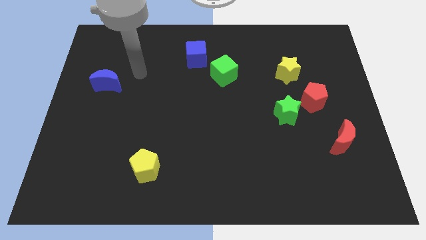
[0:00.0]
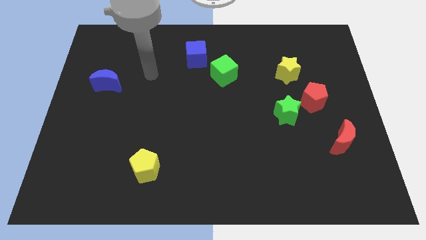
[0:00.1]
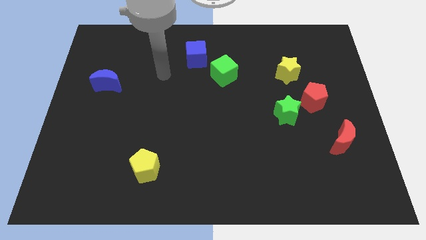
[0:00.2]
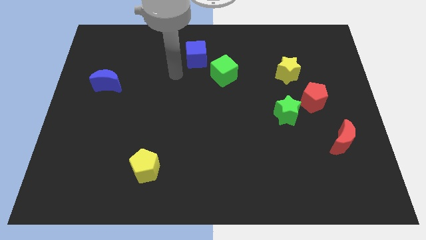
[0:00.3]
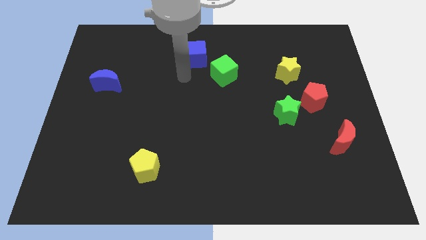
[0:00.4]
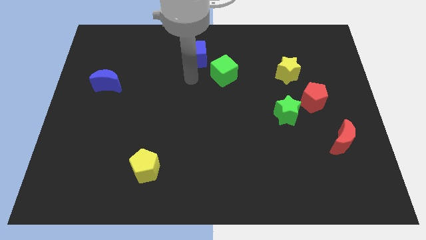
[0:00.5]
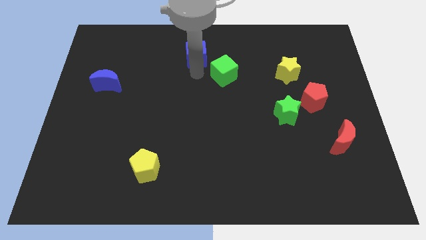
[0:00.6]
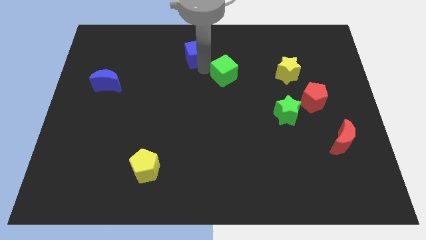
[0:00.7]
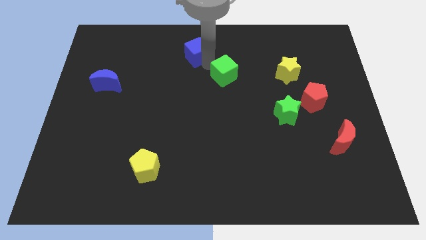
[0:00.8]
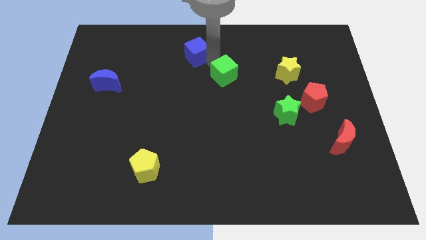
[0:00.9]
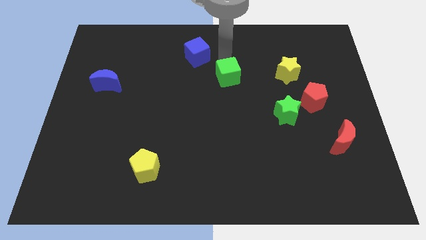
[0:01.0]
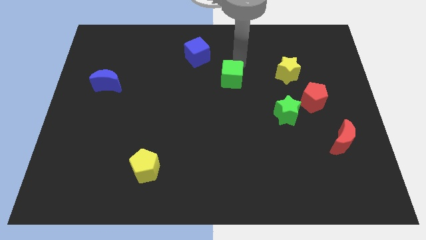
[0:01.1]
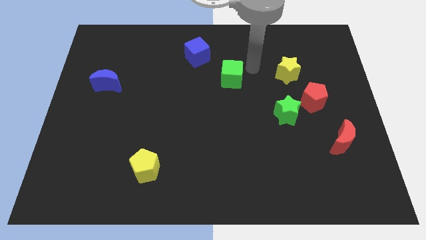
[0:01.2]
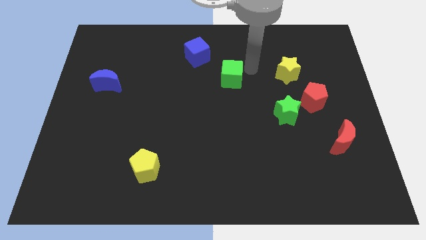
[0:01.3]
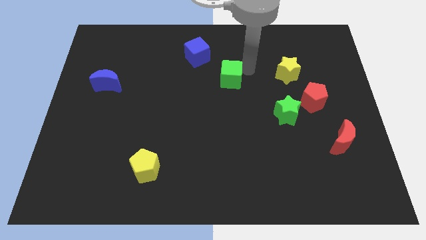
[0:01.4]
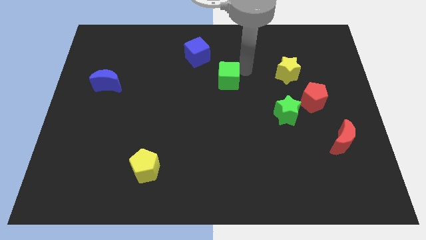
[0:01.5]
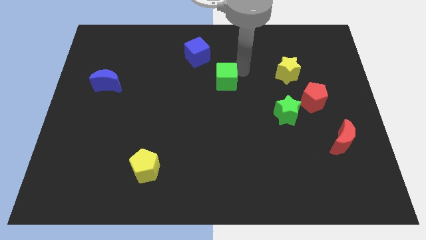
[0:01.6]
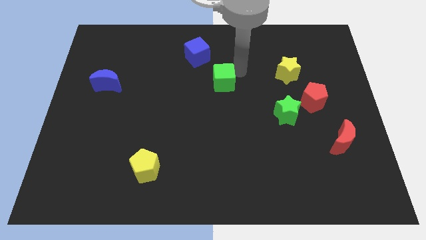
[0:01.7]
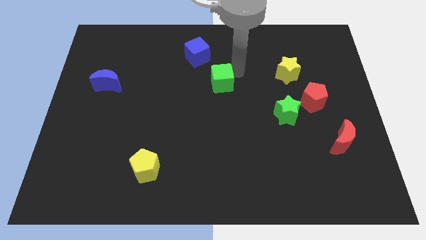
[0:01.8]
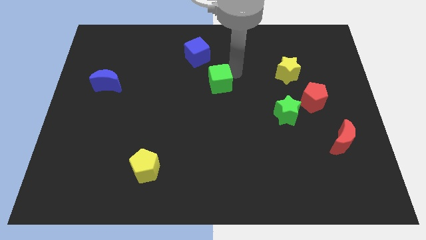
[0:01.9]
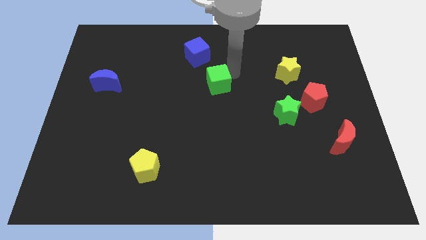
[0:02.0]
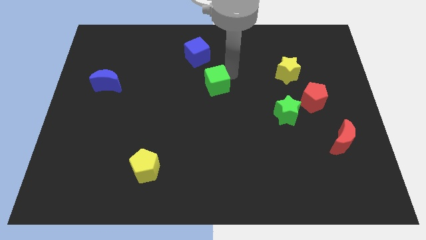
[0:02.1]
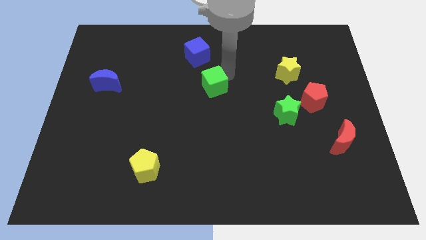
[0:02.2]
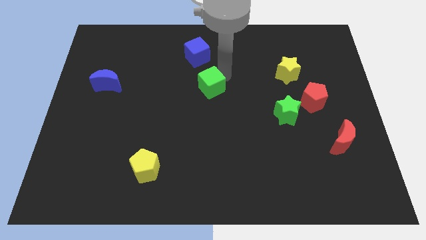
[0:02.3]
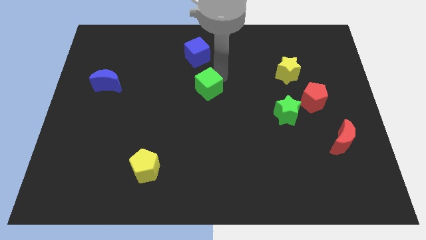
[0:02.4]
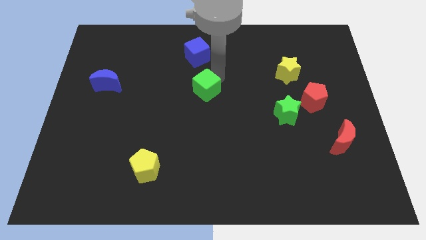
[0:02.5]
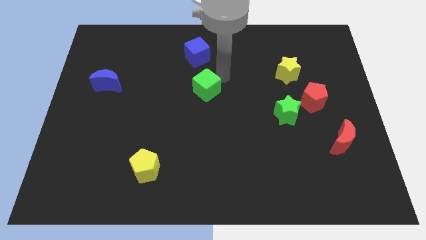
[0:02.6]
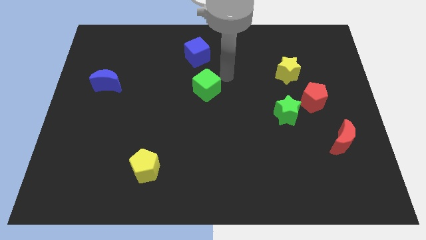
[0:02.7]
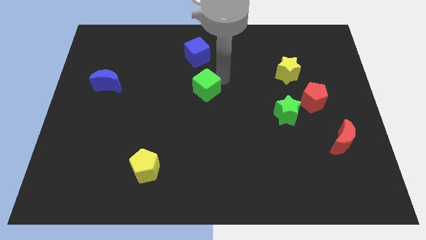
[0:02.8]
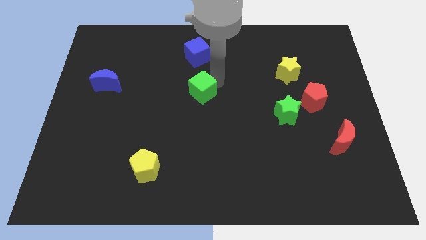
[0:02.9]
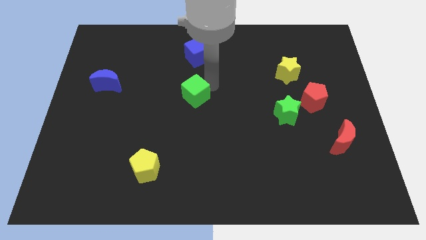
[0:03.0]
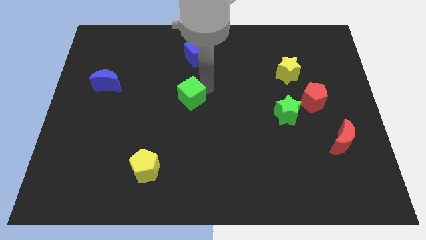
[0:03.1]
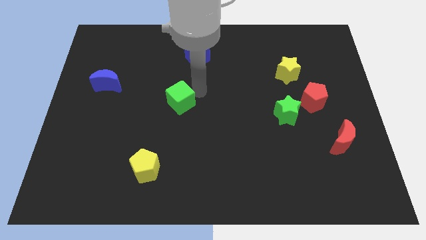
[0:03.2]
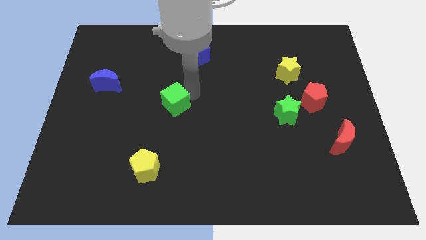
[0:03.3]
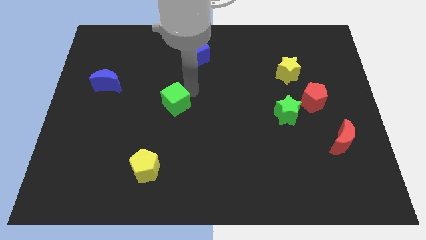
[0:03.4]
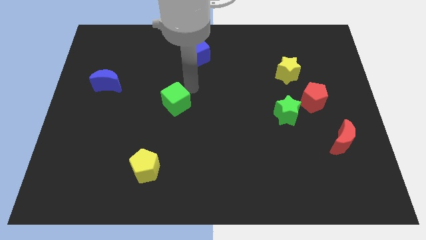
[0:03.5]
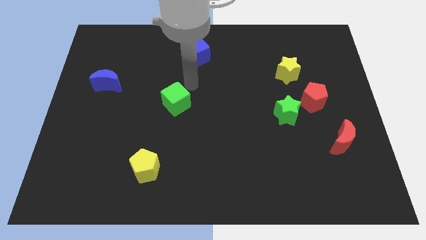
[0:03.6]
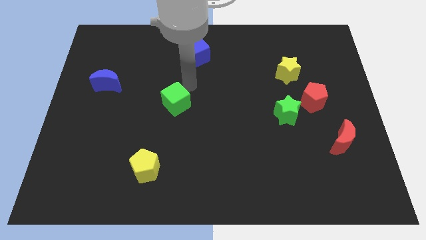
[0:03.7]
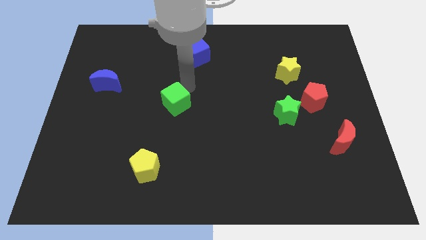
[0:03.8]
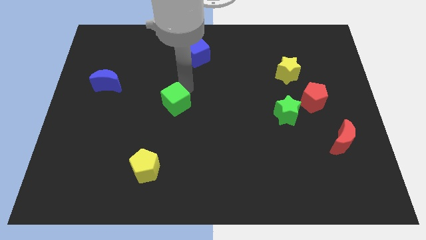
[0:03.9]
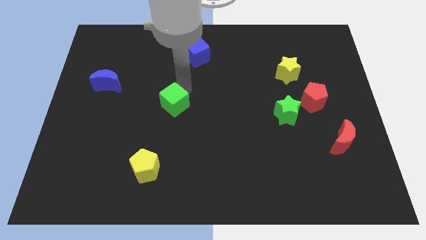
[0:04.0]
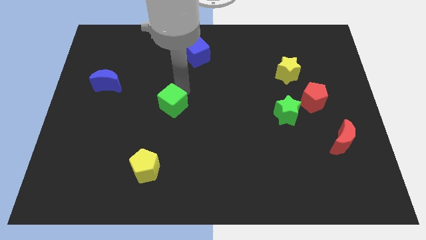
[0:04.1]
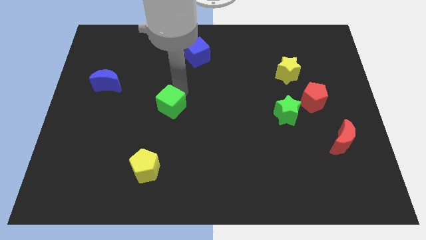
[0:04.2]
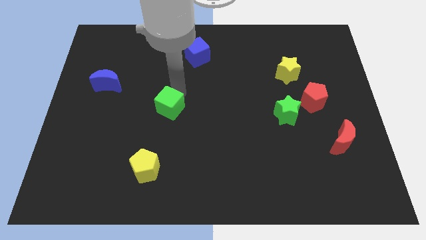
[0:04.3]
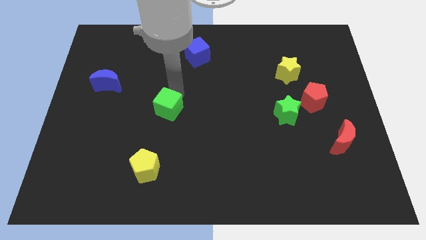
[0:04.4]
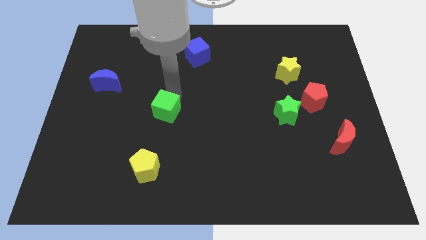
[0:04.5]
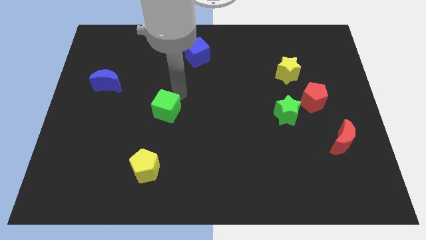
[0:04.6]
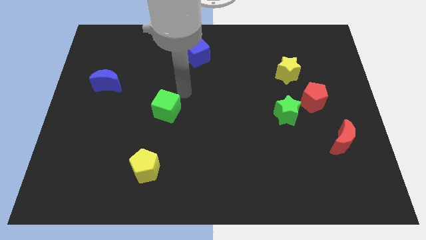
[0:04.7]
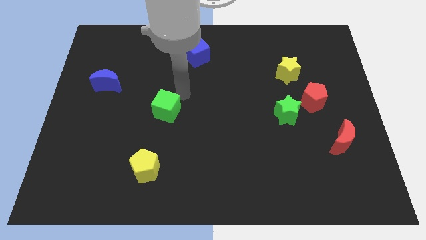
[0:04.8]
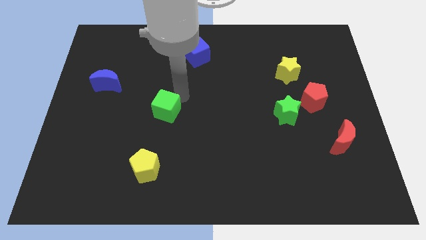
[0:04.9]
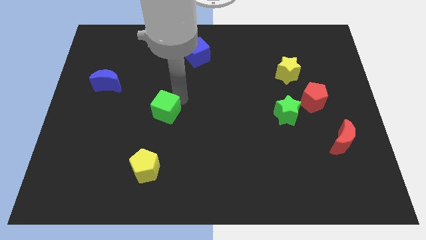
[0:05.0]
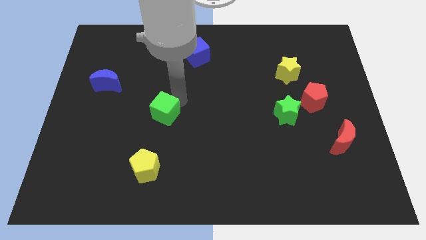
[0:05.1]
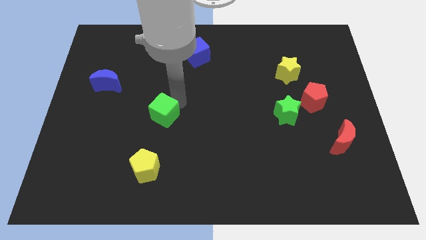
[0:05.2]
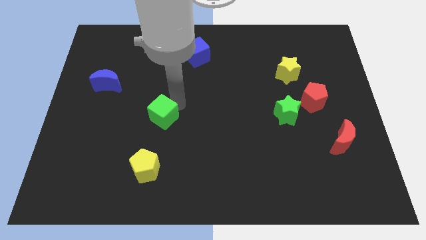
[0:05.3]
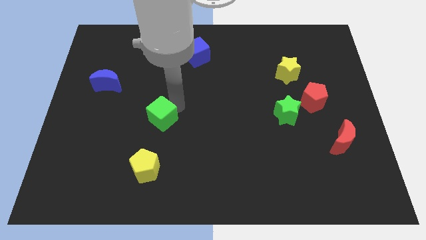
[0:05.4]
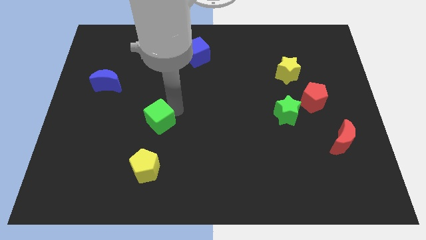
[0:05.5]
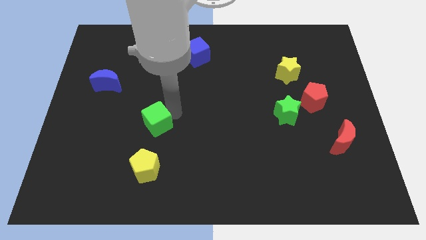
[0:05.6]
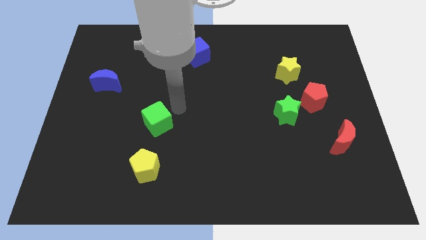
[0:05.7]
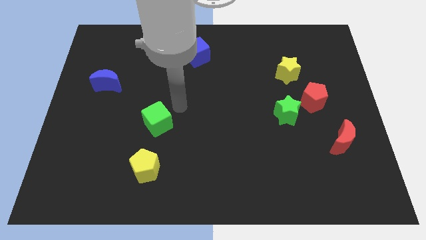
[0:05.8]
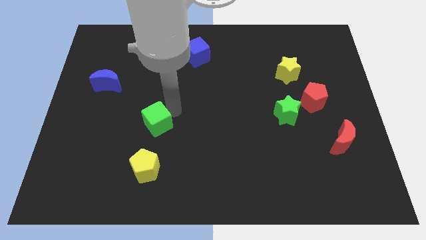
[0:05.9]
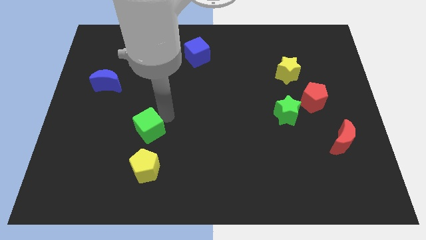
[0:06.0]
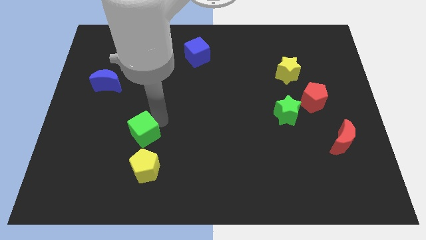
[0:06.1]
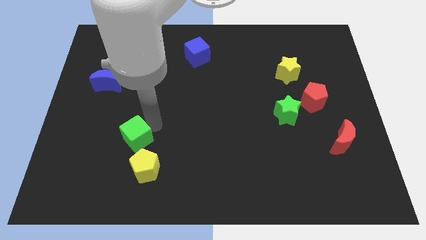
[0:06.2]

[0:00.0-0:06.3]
slide the green cube to the top left of the yellow pentagon

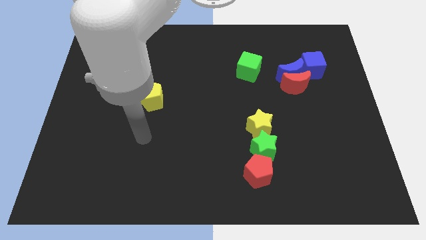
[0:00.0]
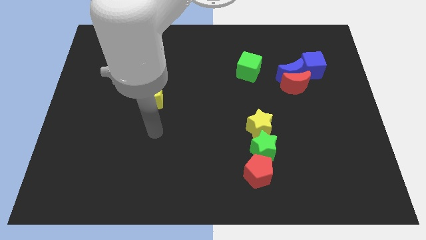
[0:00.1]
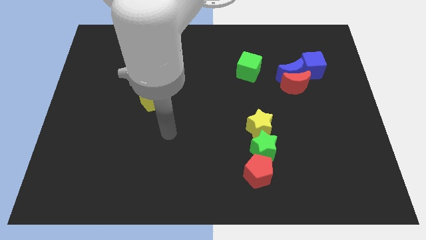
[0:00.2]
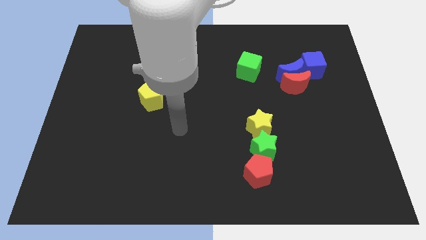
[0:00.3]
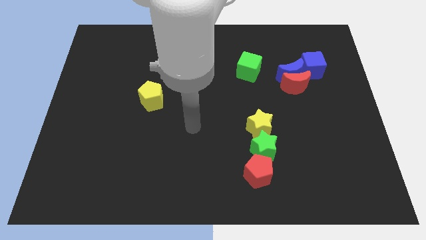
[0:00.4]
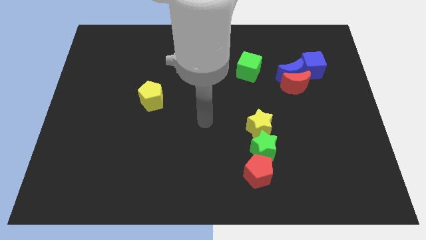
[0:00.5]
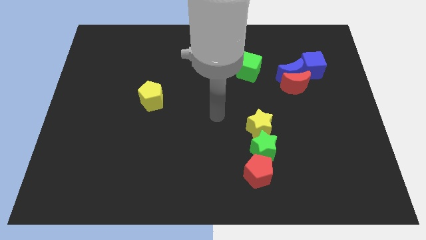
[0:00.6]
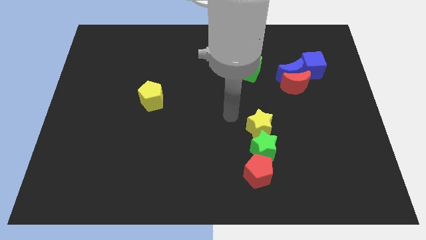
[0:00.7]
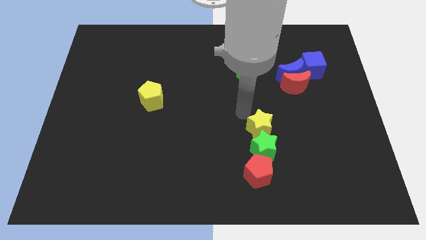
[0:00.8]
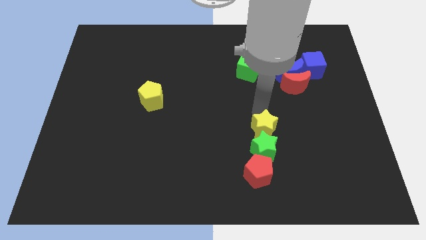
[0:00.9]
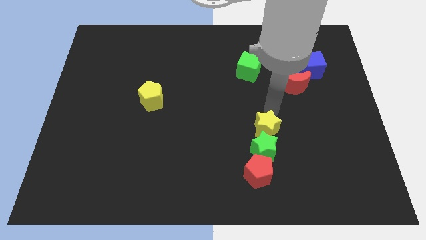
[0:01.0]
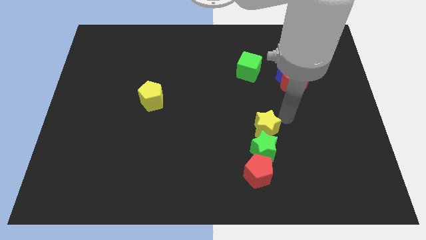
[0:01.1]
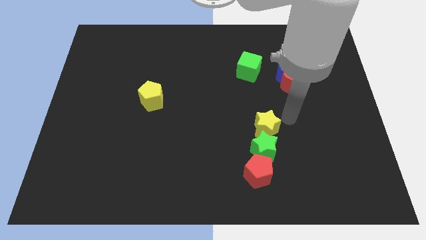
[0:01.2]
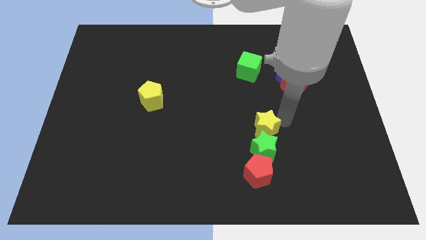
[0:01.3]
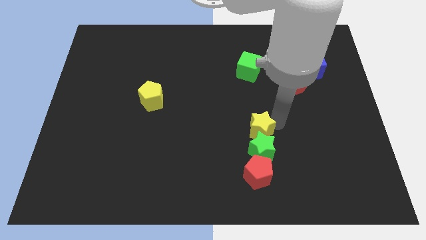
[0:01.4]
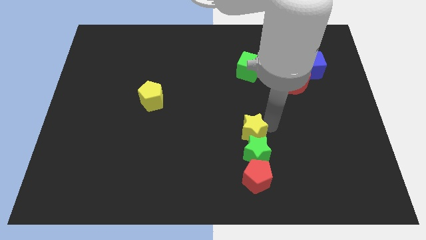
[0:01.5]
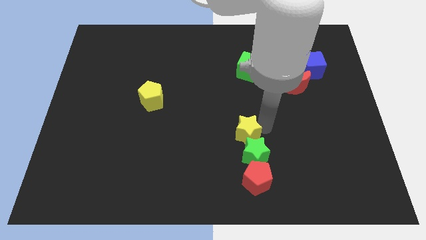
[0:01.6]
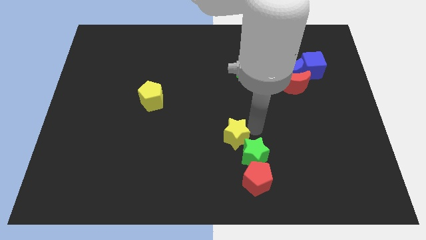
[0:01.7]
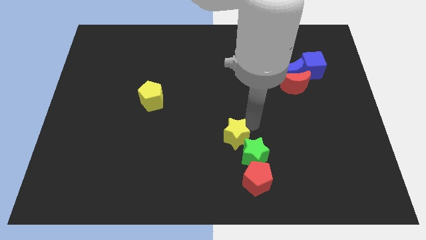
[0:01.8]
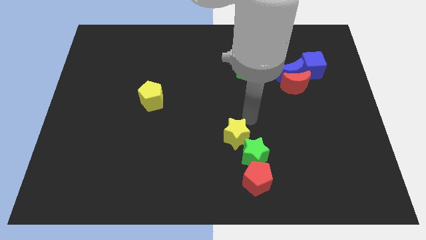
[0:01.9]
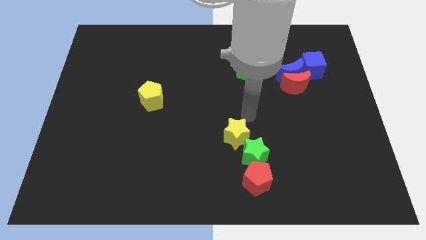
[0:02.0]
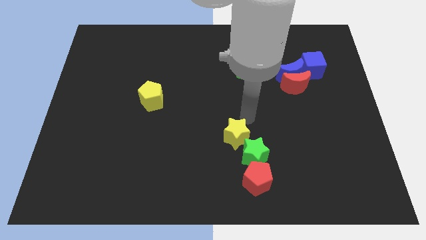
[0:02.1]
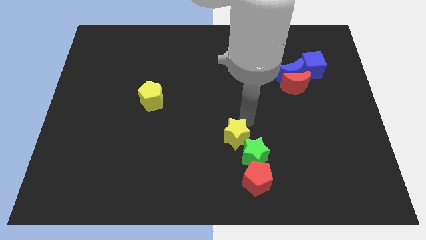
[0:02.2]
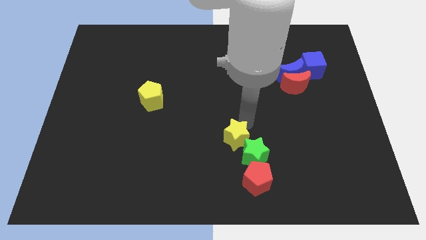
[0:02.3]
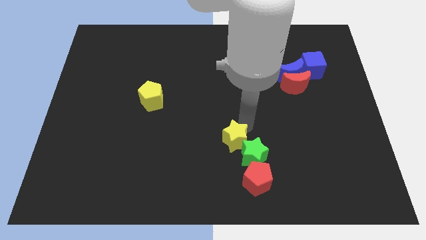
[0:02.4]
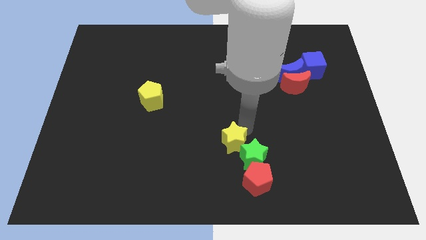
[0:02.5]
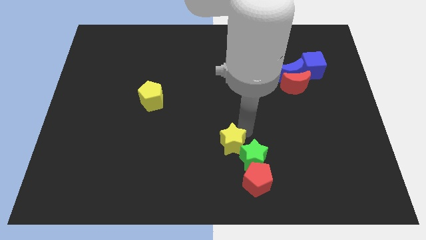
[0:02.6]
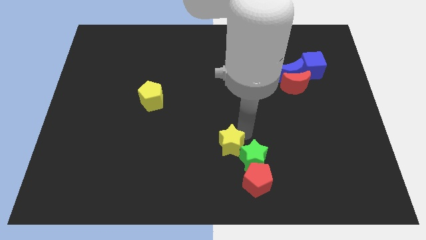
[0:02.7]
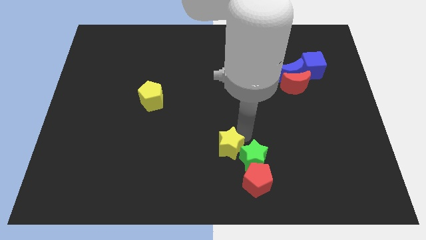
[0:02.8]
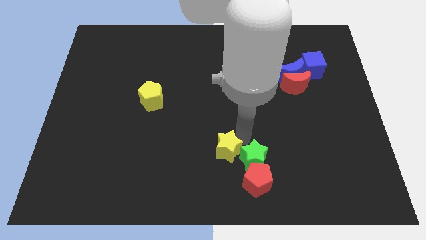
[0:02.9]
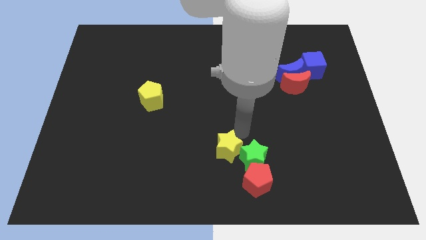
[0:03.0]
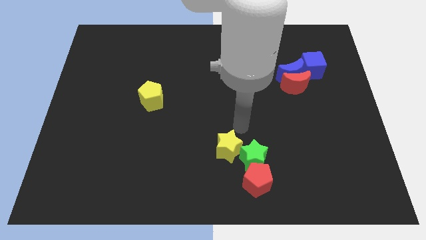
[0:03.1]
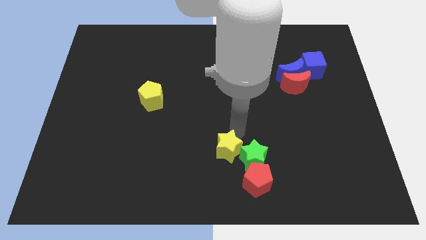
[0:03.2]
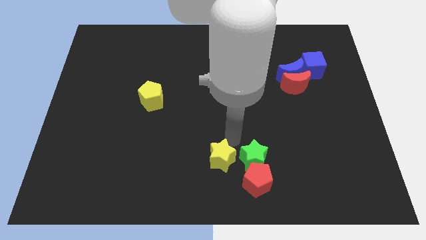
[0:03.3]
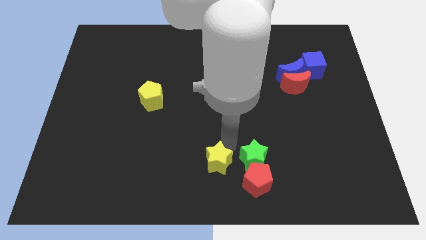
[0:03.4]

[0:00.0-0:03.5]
move the yellow star to the left of the red pentagon
